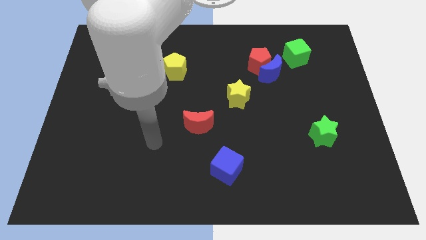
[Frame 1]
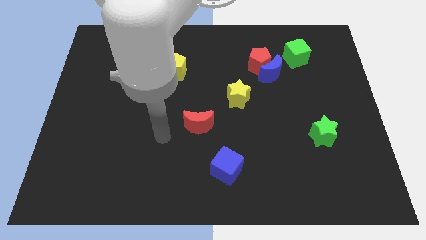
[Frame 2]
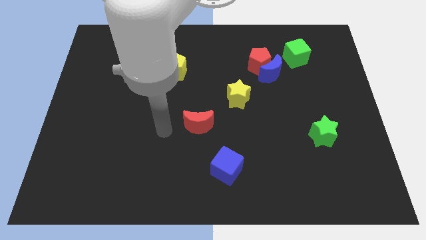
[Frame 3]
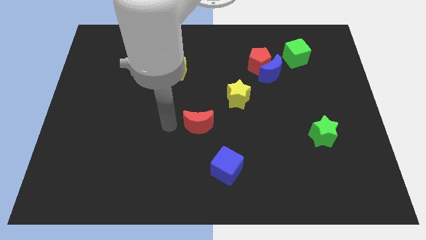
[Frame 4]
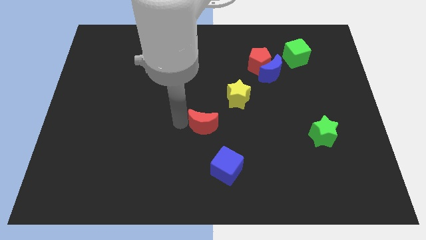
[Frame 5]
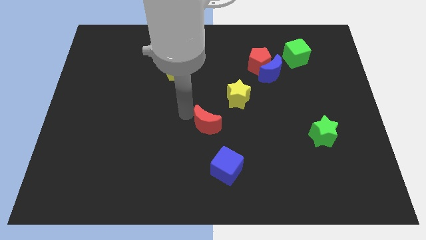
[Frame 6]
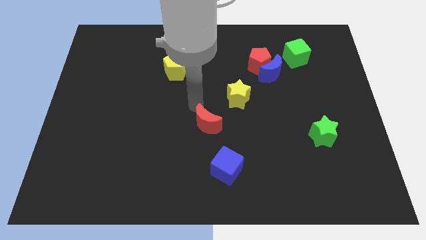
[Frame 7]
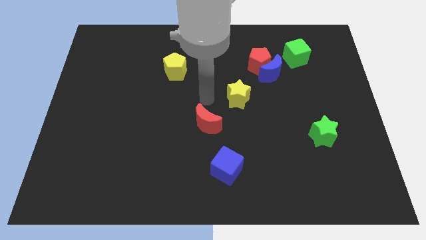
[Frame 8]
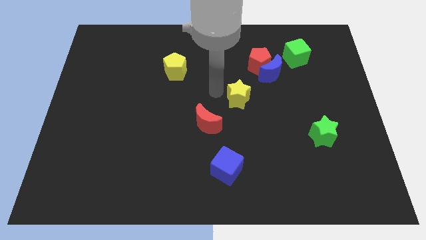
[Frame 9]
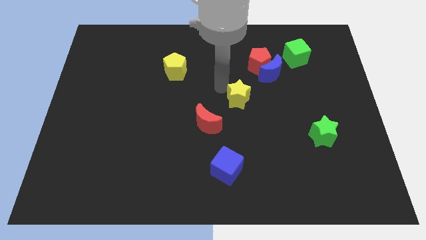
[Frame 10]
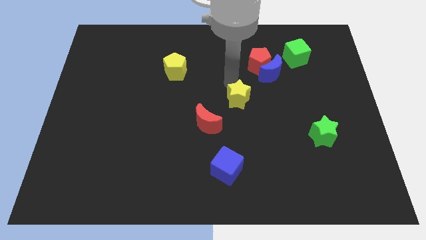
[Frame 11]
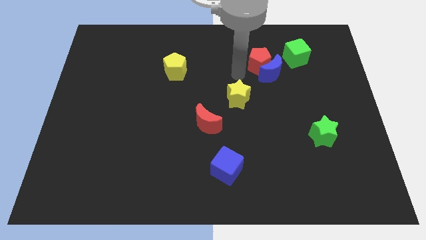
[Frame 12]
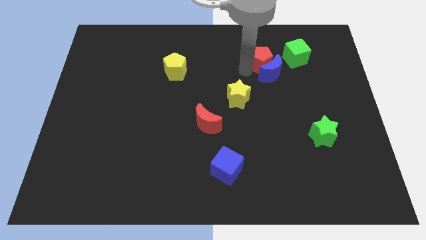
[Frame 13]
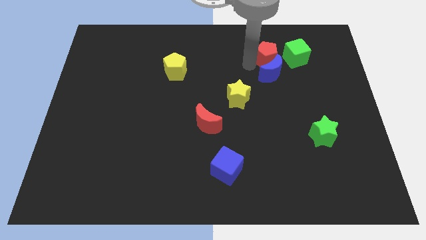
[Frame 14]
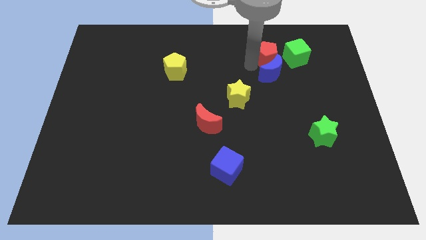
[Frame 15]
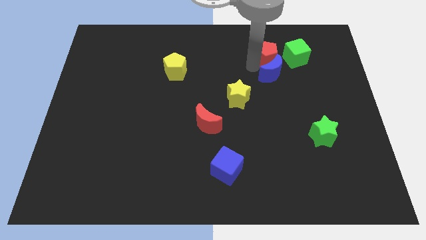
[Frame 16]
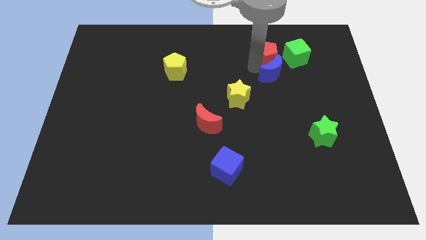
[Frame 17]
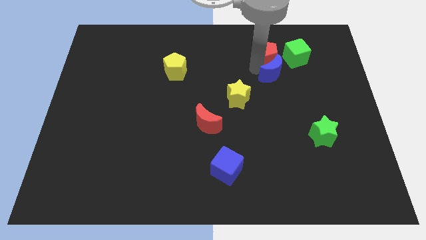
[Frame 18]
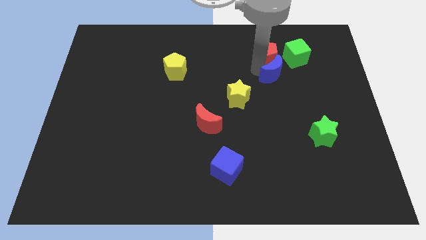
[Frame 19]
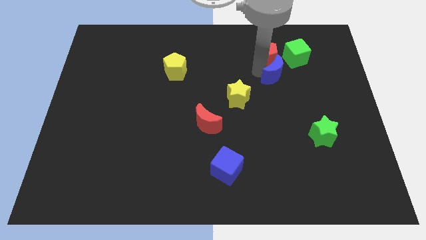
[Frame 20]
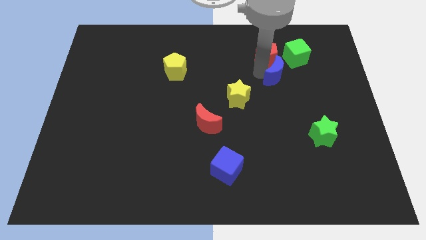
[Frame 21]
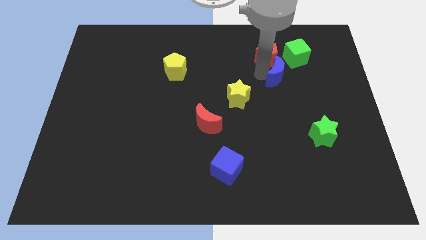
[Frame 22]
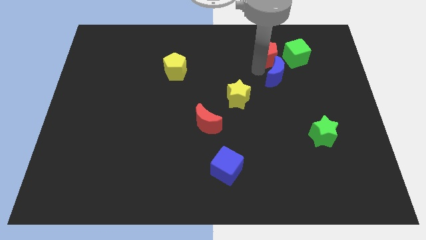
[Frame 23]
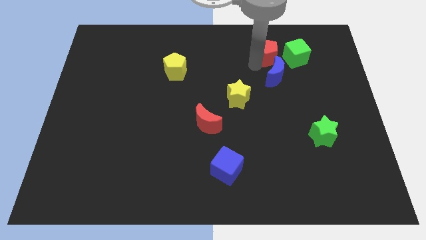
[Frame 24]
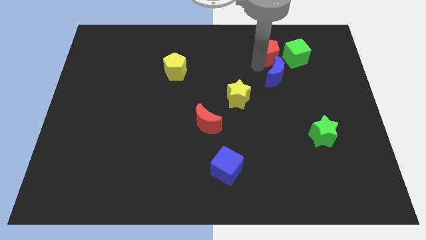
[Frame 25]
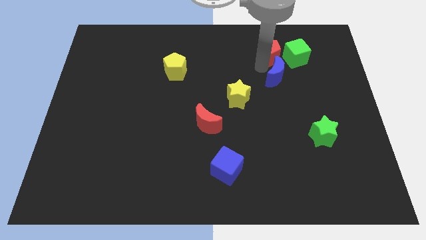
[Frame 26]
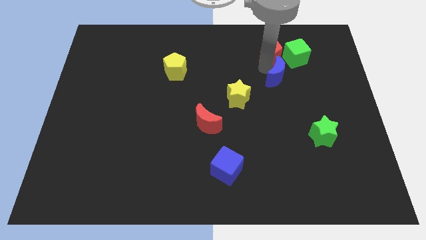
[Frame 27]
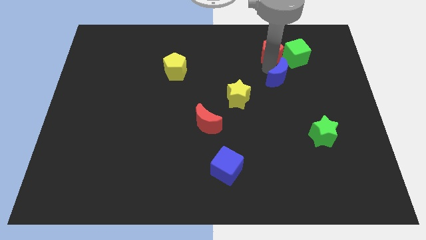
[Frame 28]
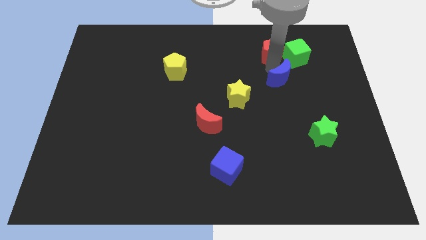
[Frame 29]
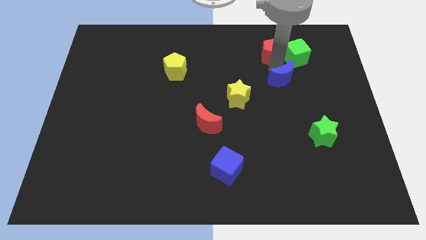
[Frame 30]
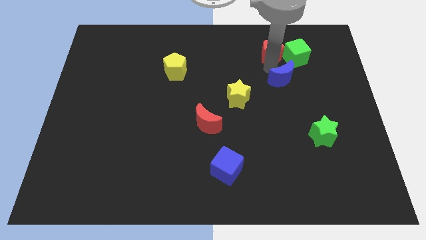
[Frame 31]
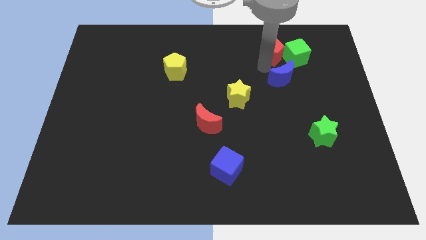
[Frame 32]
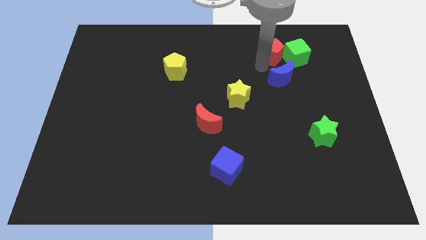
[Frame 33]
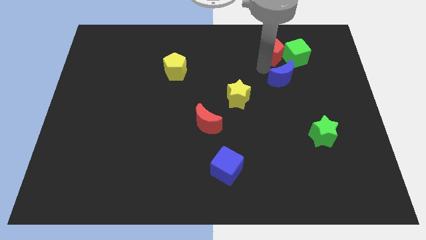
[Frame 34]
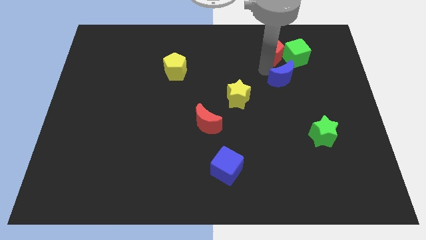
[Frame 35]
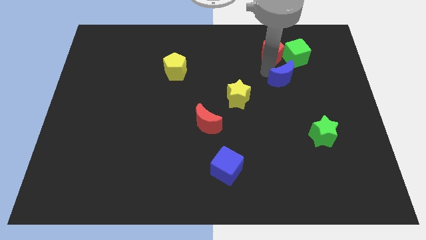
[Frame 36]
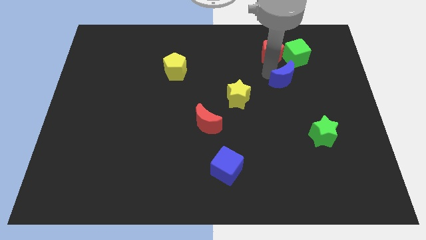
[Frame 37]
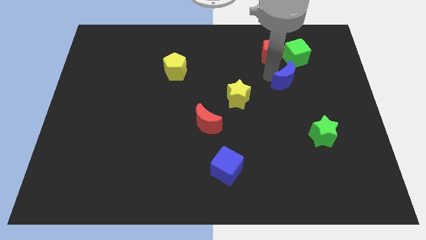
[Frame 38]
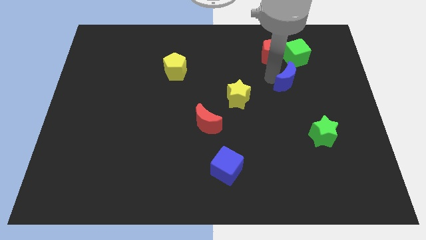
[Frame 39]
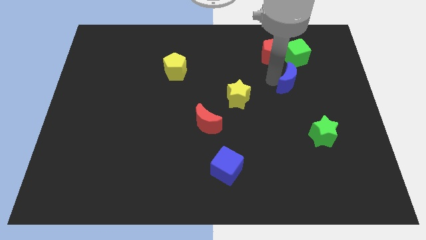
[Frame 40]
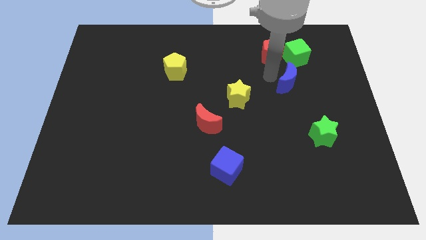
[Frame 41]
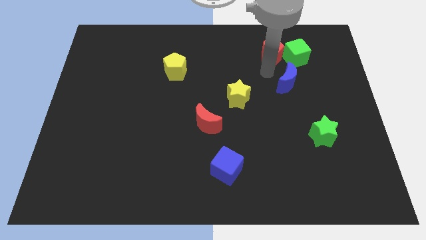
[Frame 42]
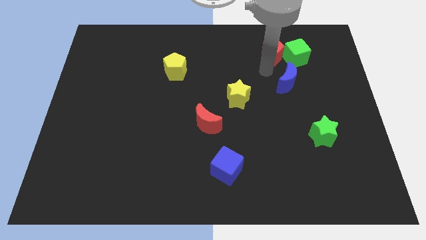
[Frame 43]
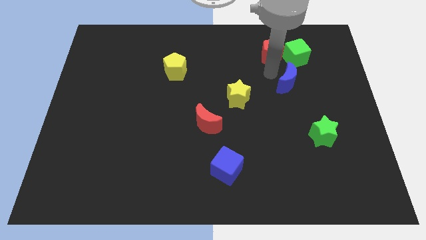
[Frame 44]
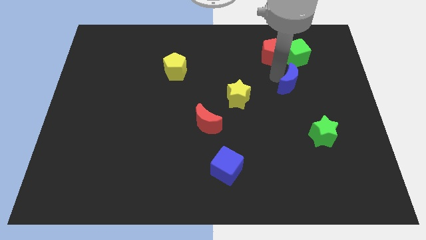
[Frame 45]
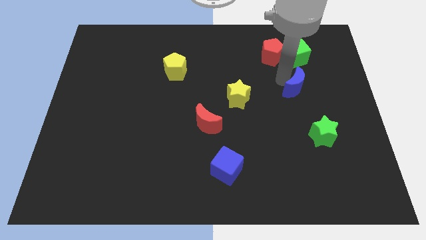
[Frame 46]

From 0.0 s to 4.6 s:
move the blue moon a little bit downwards and right

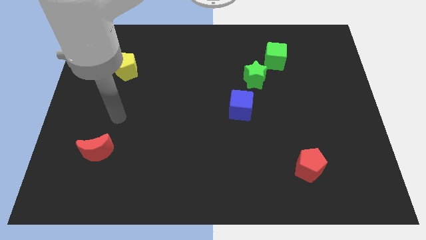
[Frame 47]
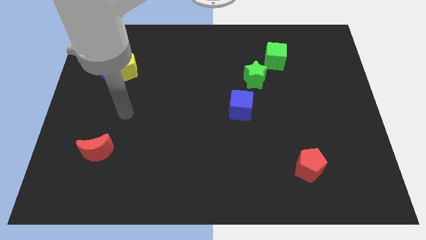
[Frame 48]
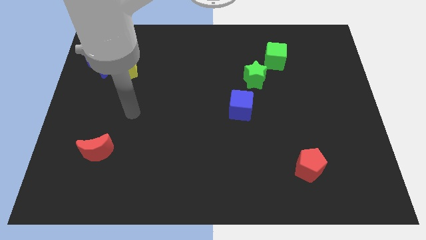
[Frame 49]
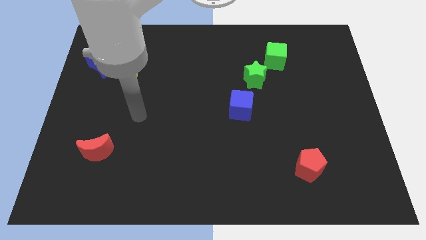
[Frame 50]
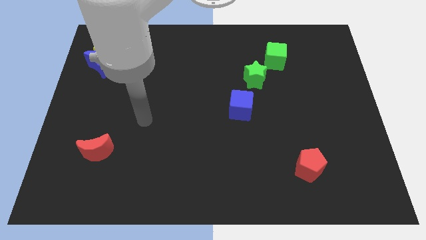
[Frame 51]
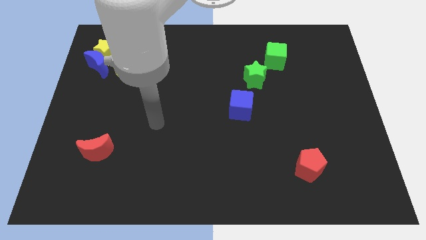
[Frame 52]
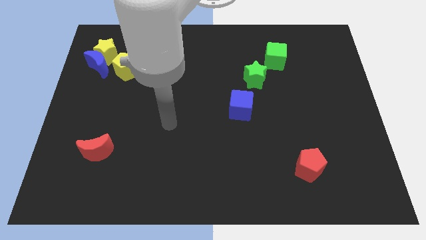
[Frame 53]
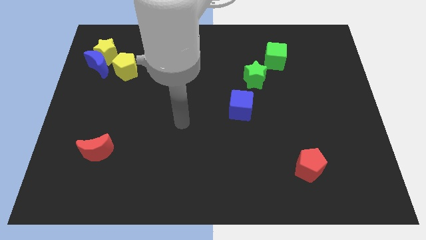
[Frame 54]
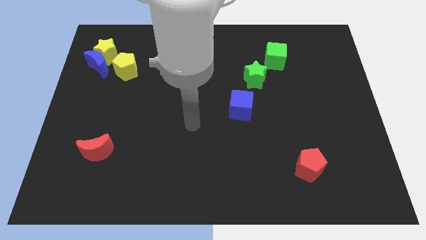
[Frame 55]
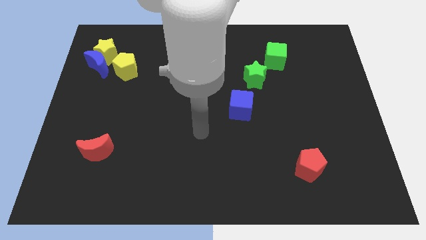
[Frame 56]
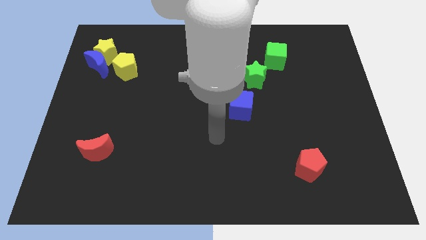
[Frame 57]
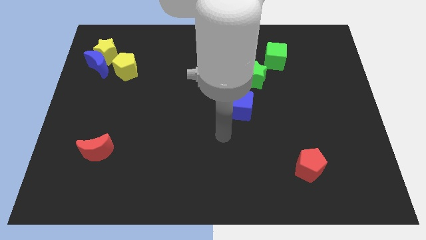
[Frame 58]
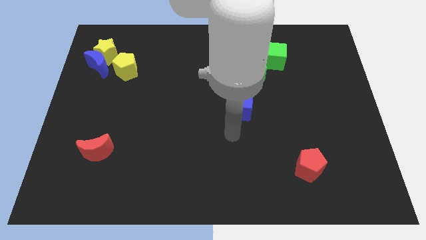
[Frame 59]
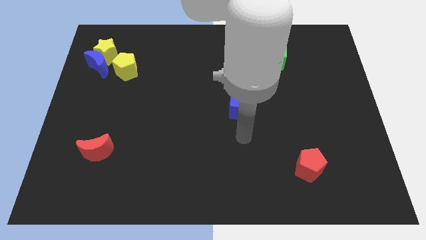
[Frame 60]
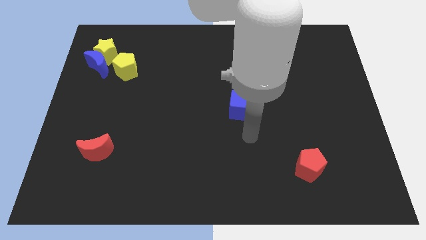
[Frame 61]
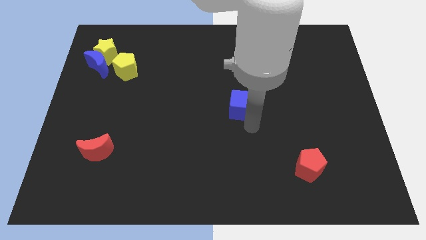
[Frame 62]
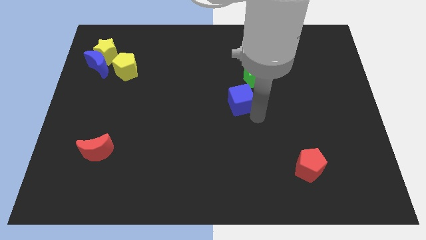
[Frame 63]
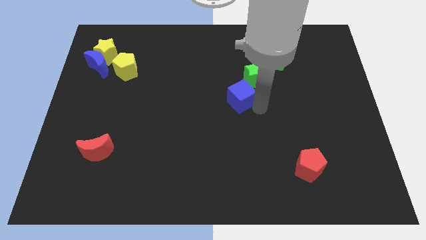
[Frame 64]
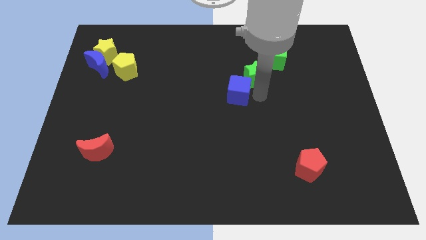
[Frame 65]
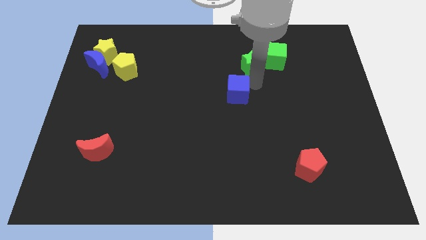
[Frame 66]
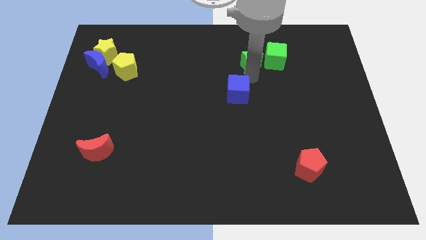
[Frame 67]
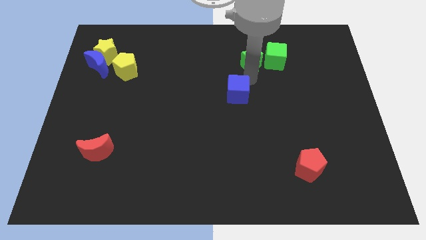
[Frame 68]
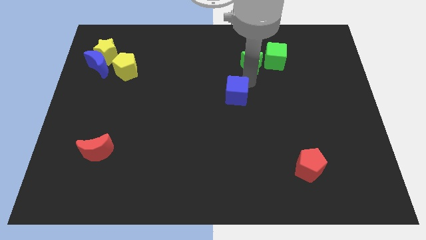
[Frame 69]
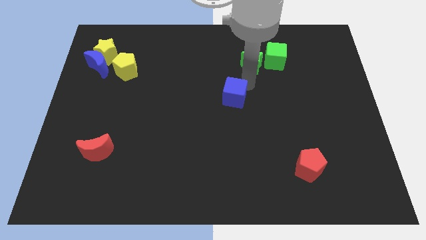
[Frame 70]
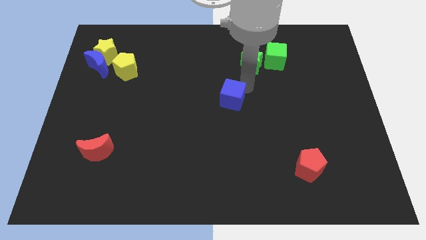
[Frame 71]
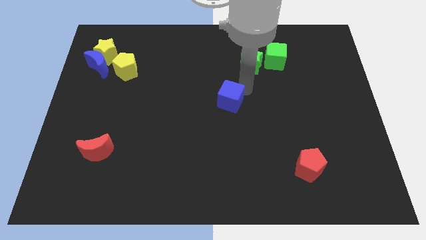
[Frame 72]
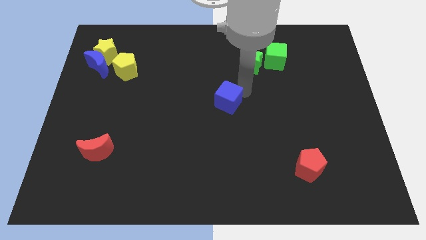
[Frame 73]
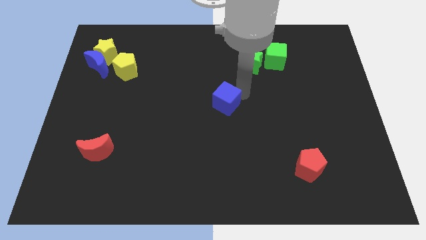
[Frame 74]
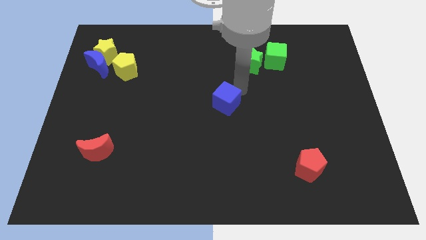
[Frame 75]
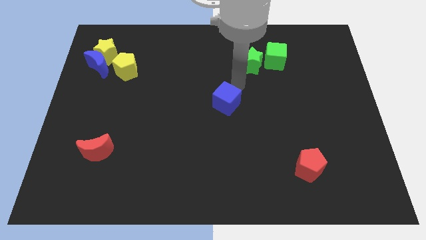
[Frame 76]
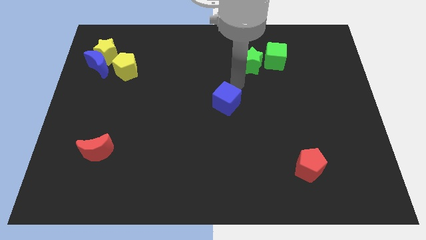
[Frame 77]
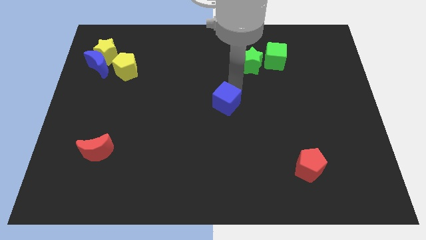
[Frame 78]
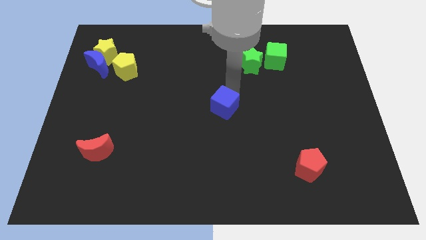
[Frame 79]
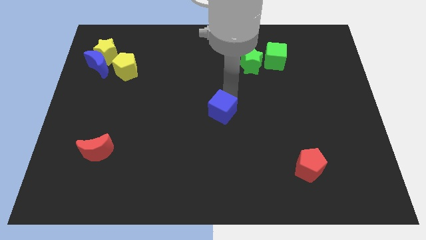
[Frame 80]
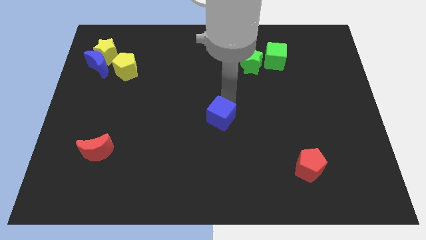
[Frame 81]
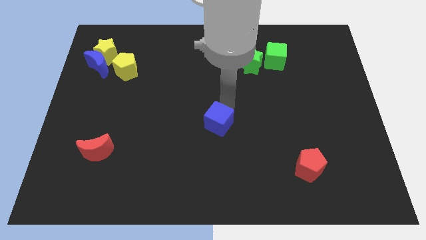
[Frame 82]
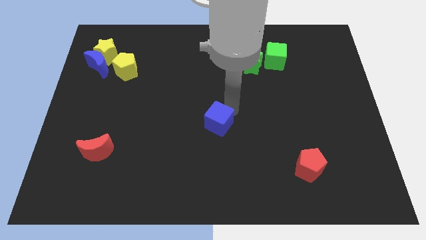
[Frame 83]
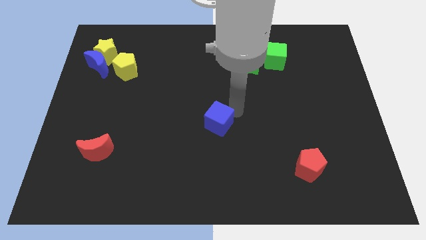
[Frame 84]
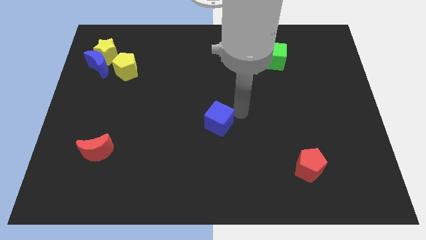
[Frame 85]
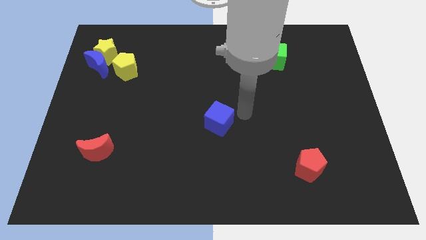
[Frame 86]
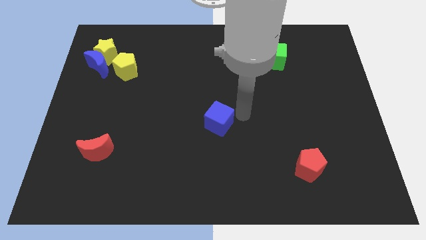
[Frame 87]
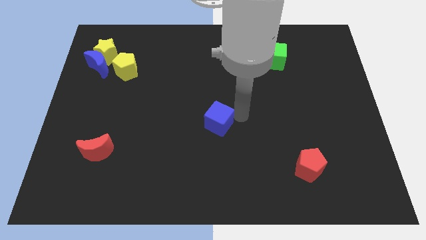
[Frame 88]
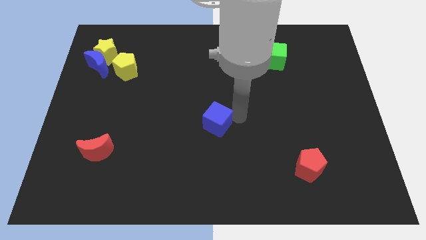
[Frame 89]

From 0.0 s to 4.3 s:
slightly move the blue cube diagonally downwards and left
